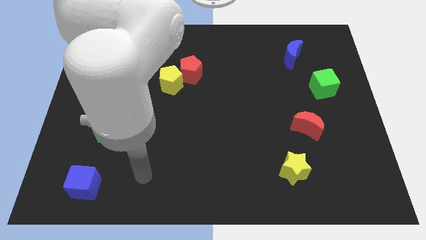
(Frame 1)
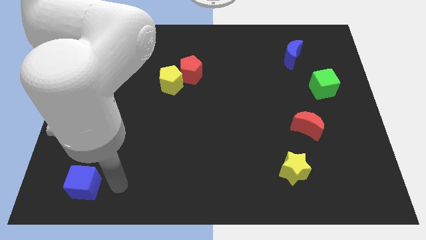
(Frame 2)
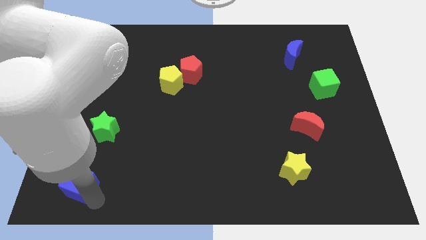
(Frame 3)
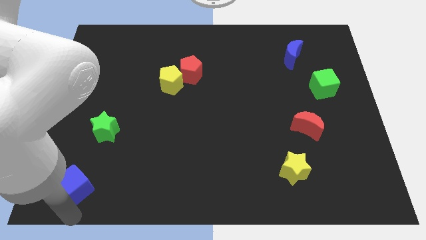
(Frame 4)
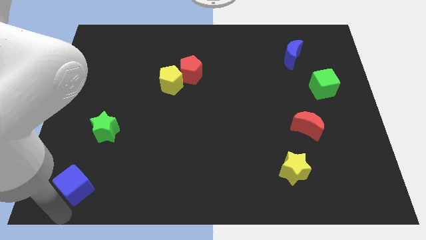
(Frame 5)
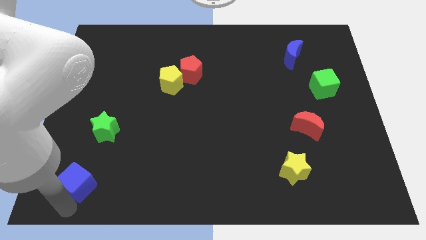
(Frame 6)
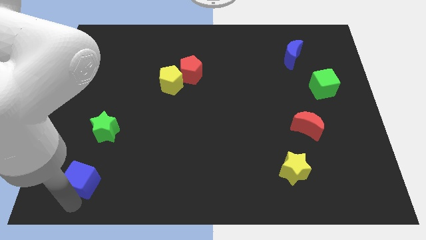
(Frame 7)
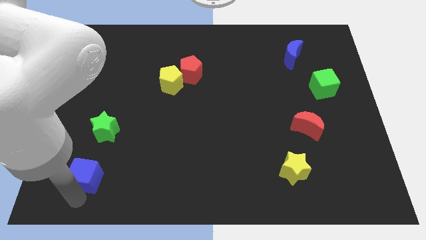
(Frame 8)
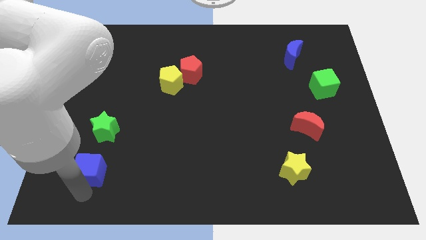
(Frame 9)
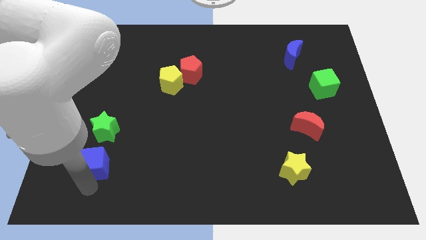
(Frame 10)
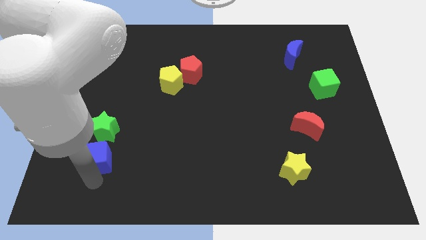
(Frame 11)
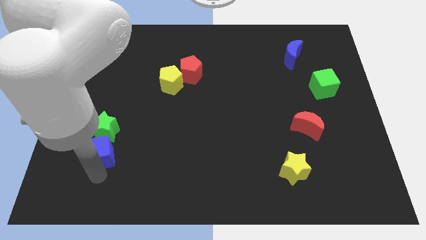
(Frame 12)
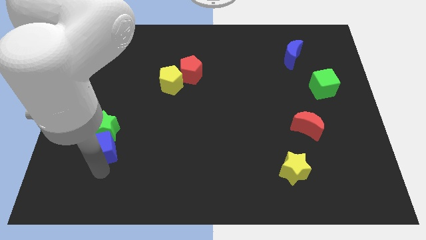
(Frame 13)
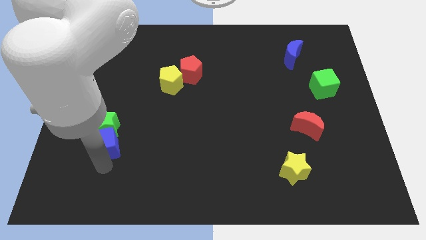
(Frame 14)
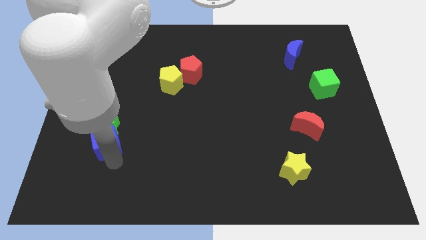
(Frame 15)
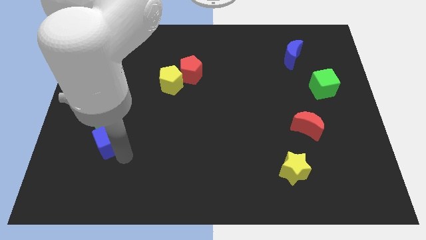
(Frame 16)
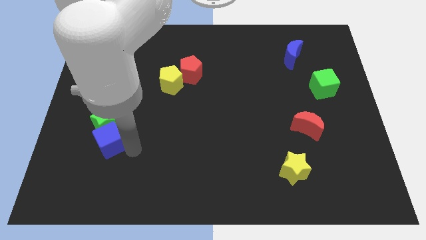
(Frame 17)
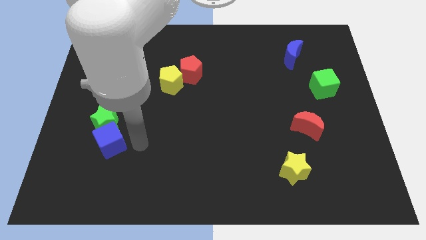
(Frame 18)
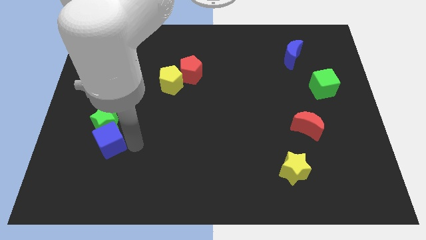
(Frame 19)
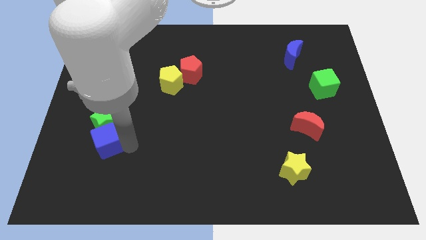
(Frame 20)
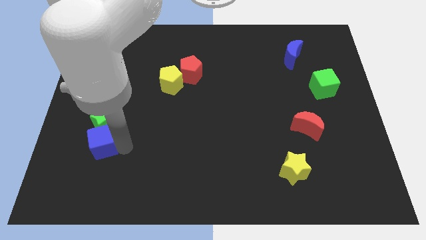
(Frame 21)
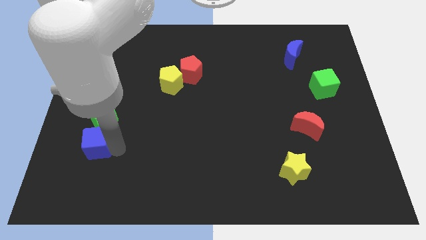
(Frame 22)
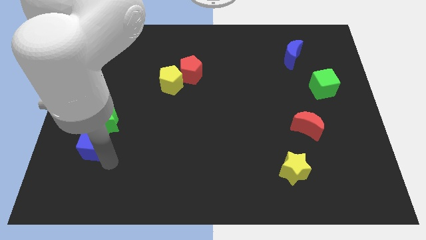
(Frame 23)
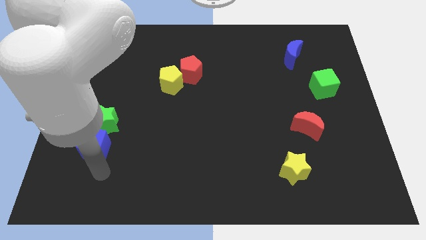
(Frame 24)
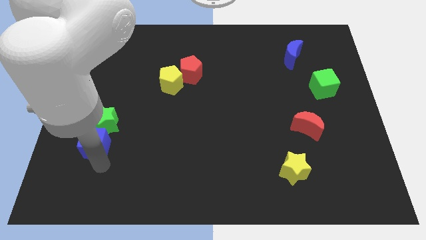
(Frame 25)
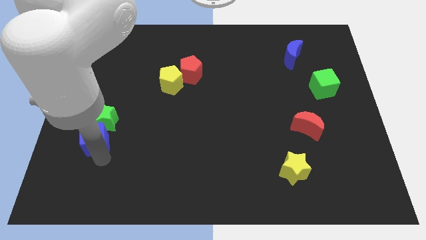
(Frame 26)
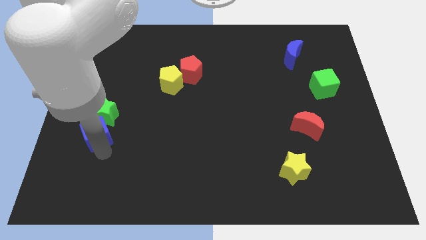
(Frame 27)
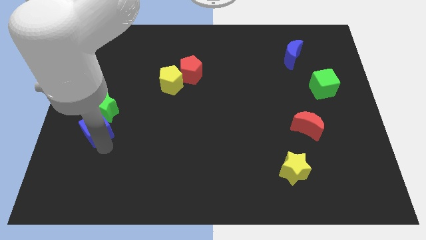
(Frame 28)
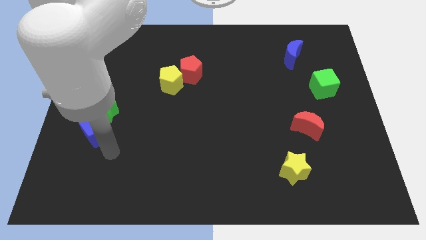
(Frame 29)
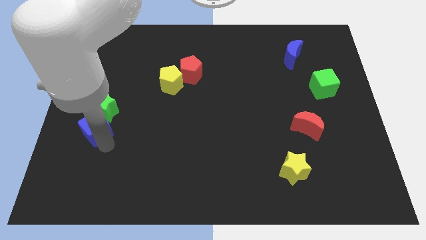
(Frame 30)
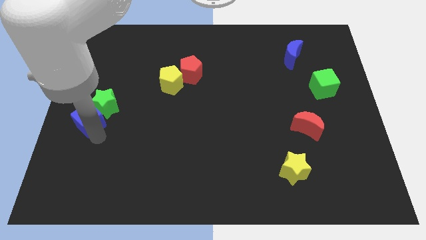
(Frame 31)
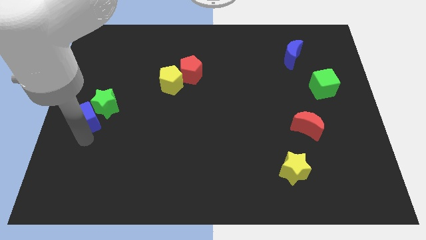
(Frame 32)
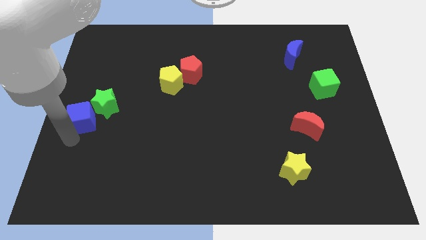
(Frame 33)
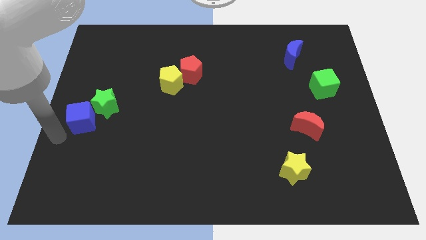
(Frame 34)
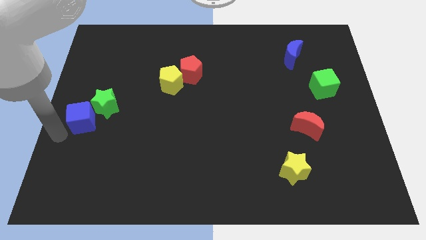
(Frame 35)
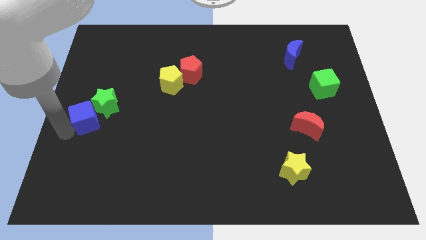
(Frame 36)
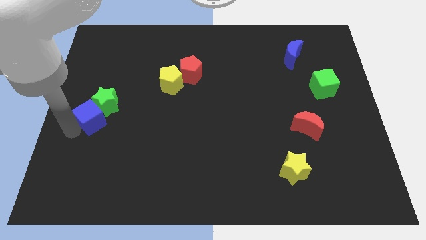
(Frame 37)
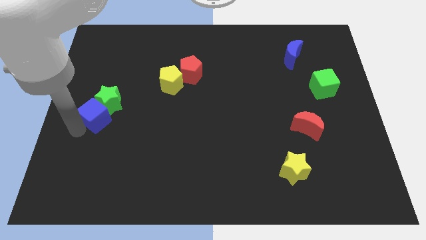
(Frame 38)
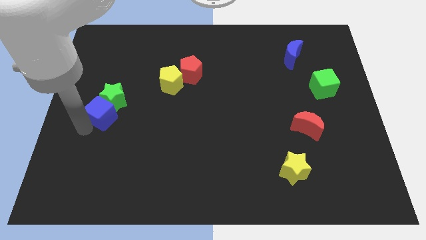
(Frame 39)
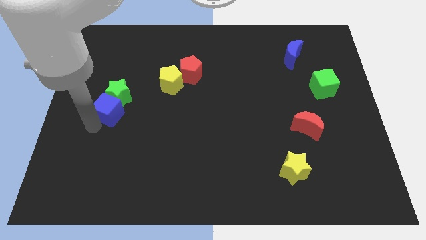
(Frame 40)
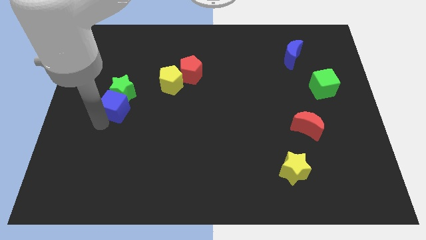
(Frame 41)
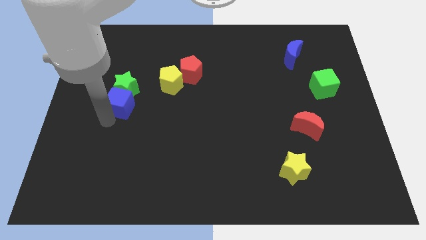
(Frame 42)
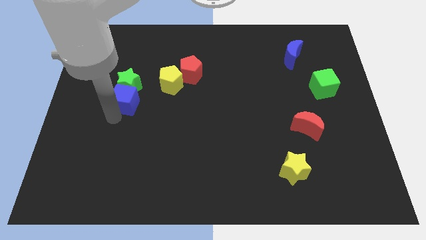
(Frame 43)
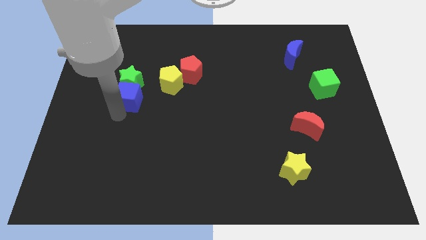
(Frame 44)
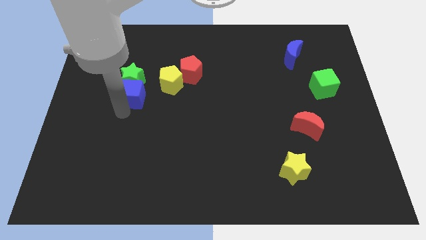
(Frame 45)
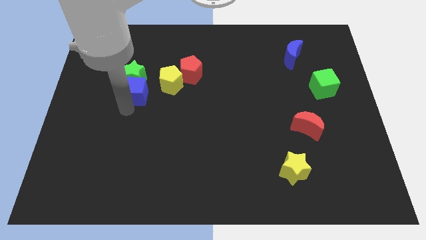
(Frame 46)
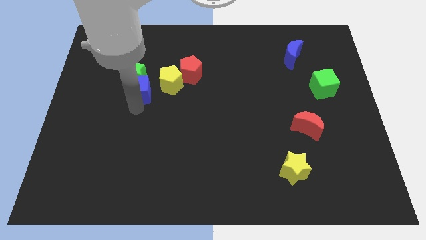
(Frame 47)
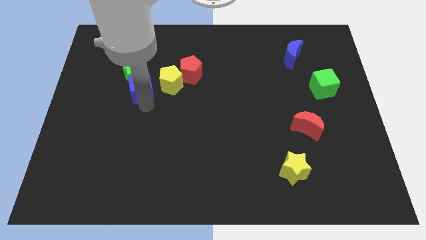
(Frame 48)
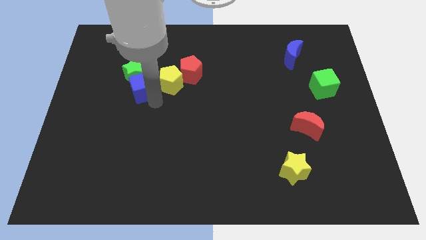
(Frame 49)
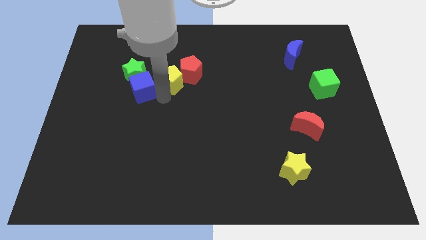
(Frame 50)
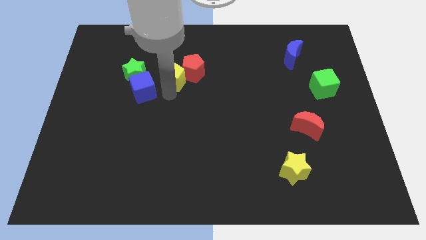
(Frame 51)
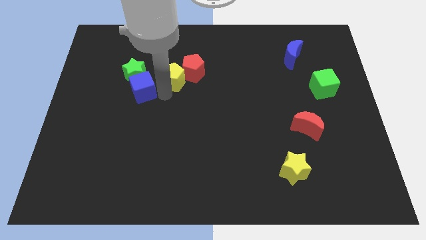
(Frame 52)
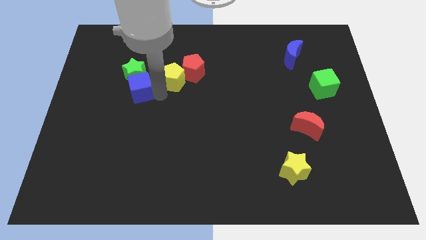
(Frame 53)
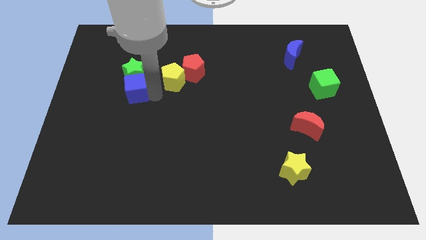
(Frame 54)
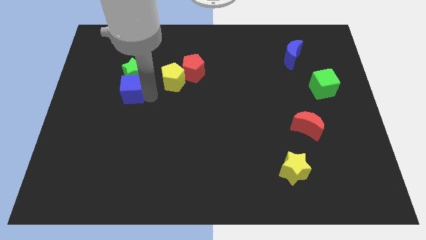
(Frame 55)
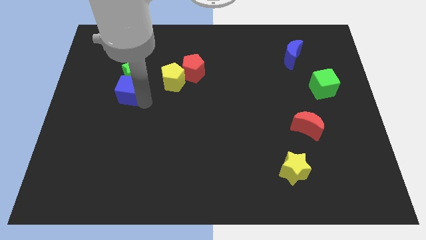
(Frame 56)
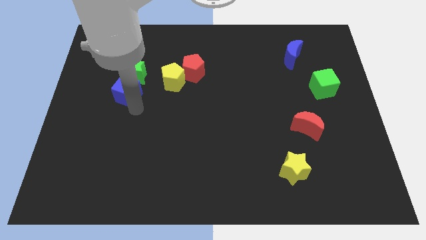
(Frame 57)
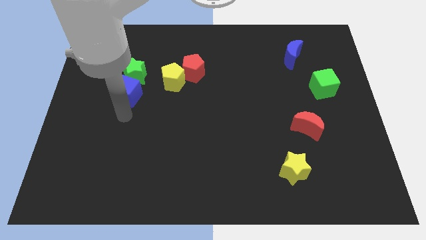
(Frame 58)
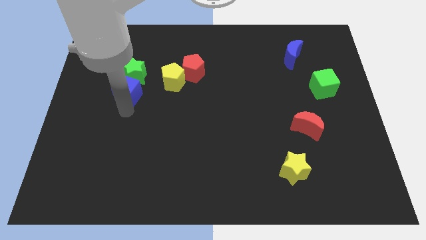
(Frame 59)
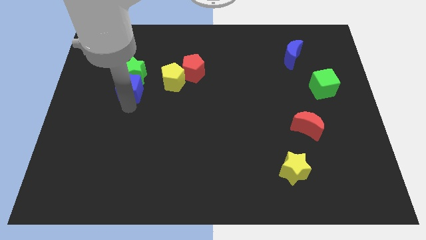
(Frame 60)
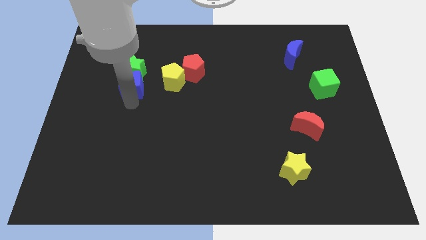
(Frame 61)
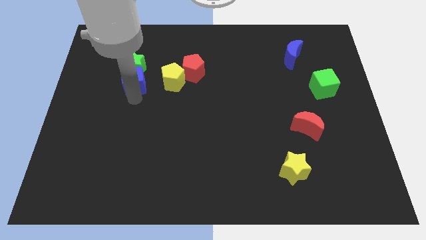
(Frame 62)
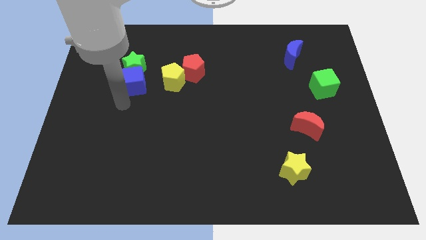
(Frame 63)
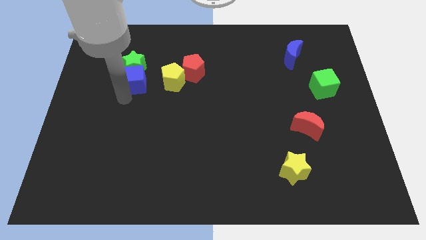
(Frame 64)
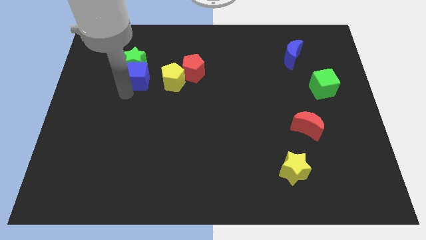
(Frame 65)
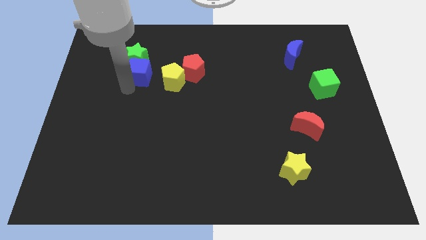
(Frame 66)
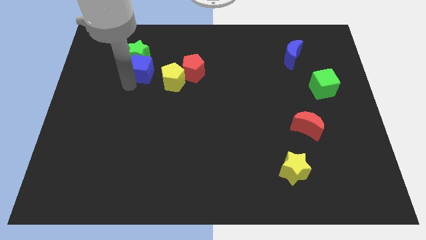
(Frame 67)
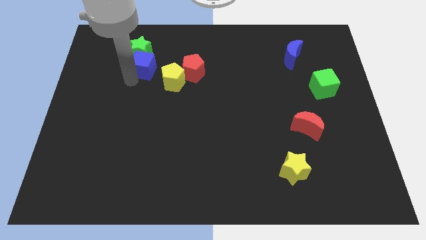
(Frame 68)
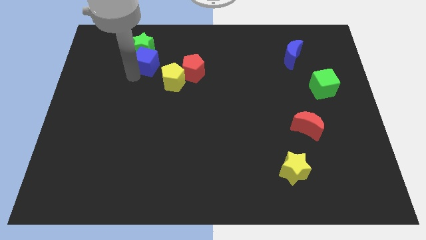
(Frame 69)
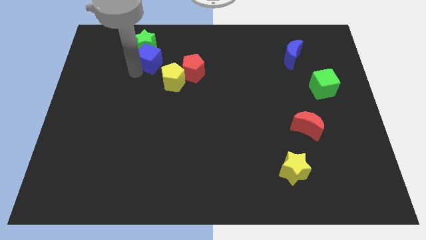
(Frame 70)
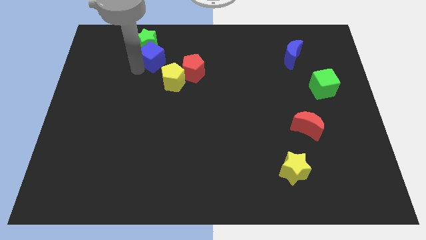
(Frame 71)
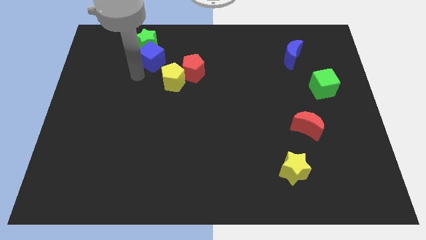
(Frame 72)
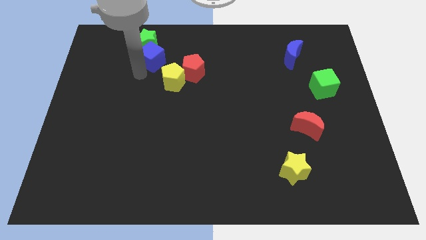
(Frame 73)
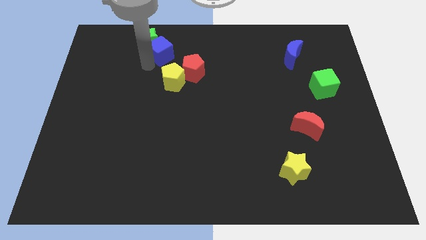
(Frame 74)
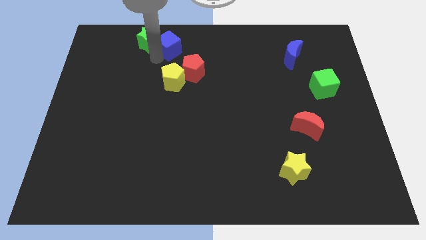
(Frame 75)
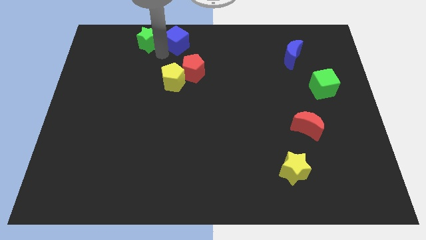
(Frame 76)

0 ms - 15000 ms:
slide the blue cube to the top

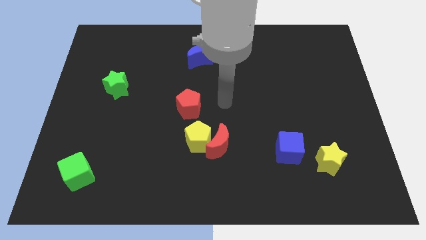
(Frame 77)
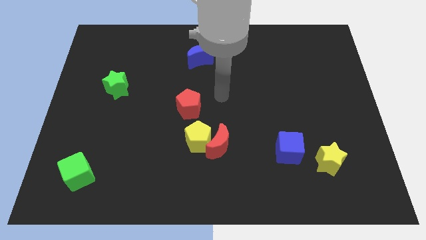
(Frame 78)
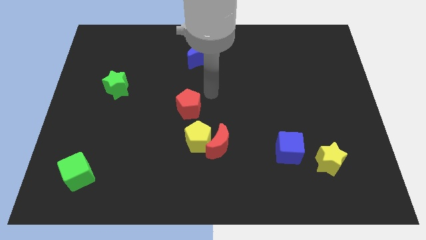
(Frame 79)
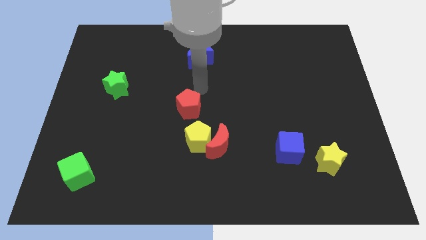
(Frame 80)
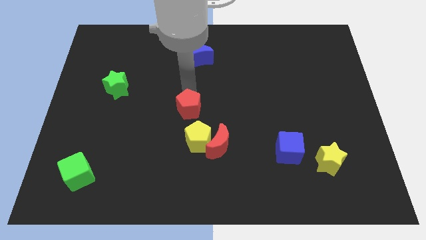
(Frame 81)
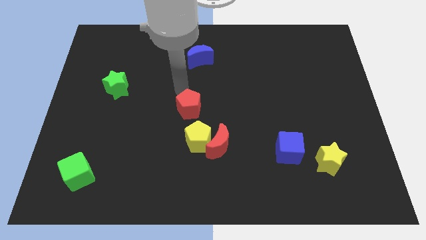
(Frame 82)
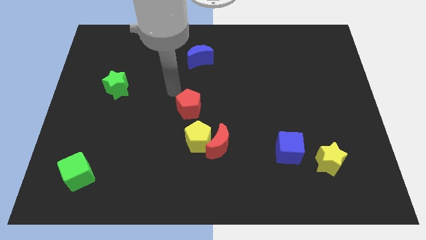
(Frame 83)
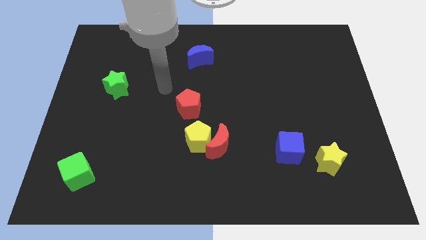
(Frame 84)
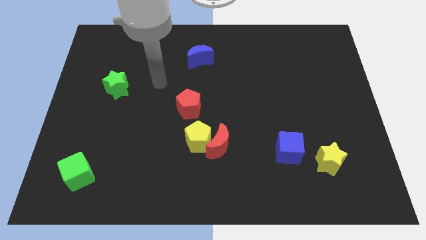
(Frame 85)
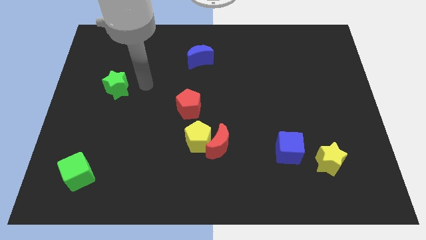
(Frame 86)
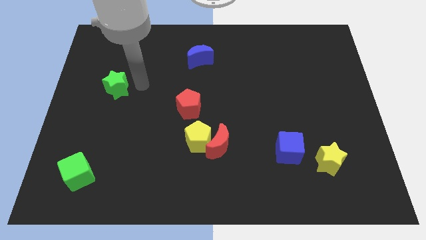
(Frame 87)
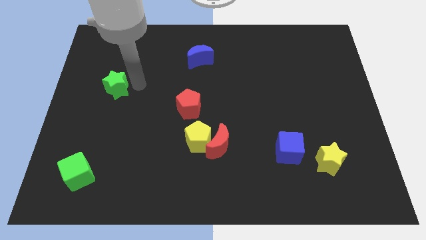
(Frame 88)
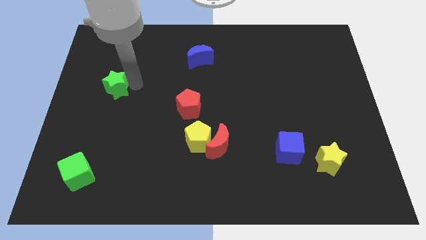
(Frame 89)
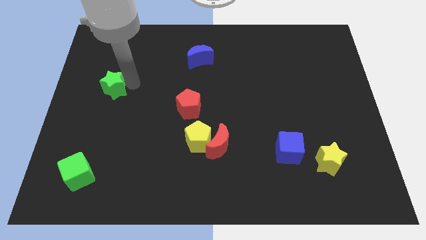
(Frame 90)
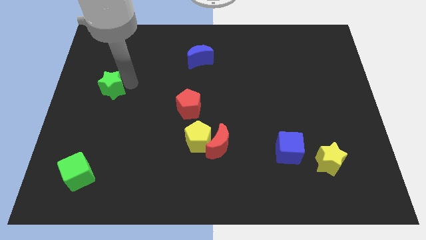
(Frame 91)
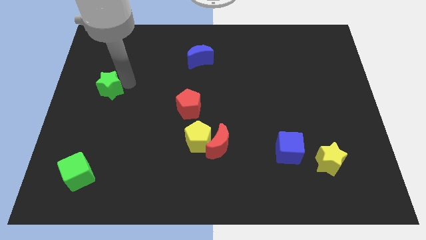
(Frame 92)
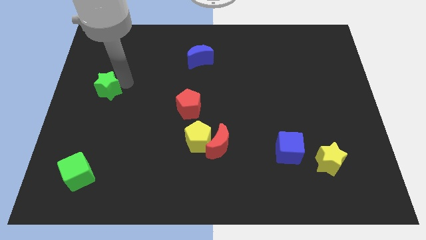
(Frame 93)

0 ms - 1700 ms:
push the green star to the center left
